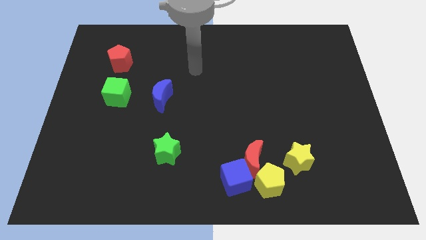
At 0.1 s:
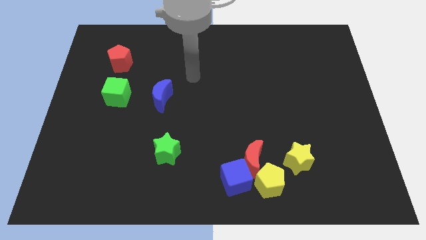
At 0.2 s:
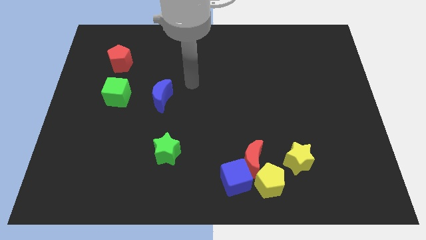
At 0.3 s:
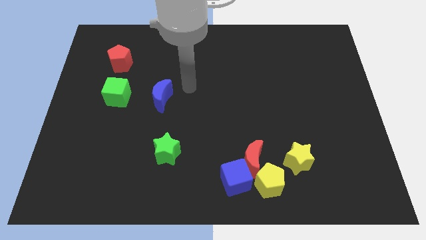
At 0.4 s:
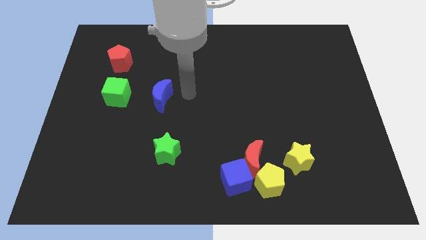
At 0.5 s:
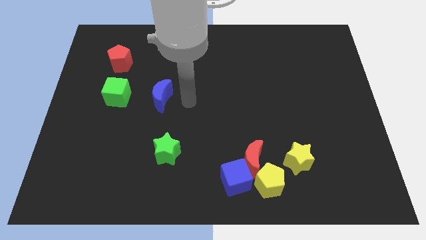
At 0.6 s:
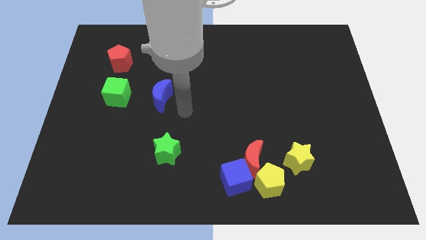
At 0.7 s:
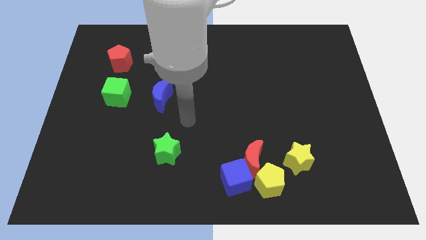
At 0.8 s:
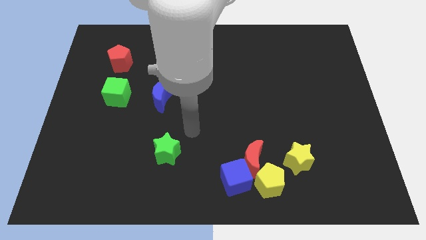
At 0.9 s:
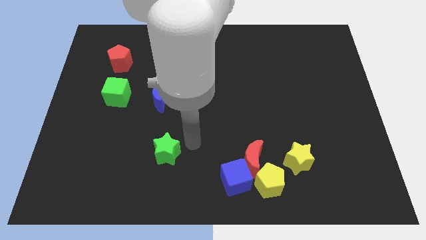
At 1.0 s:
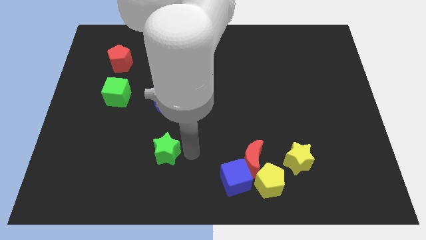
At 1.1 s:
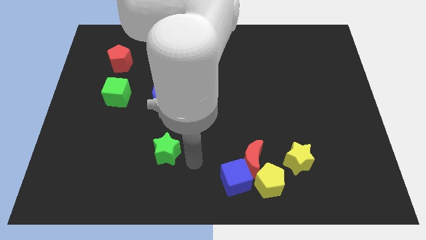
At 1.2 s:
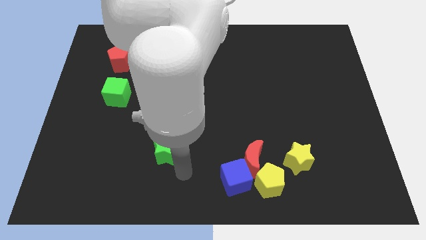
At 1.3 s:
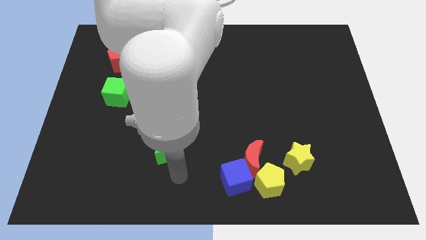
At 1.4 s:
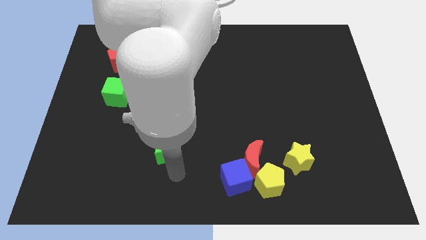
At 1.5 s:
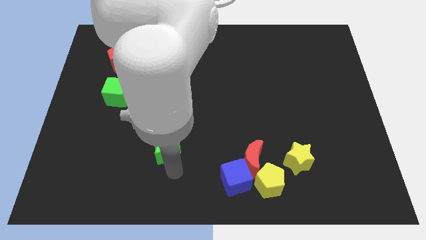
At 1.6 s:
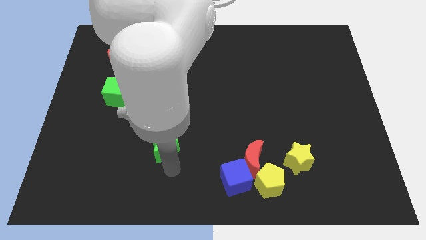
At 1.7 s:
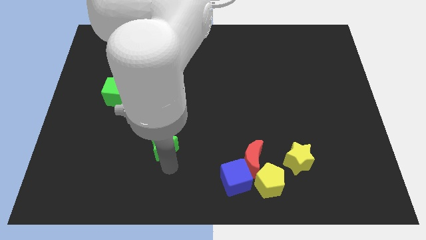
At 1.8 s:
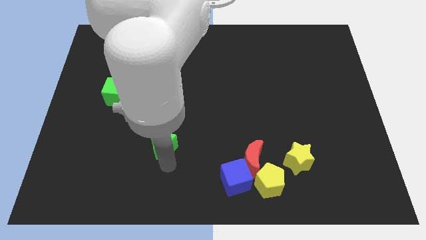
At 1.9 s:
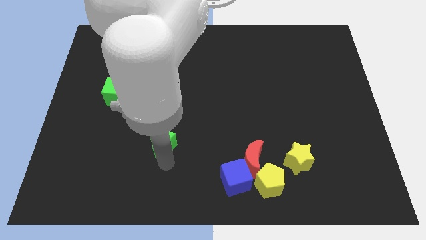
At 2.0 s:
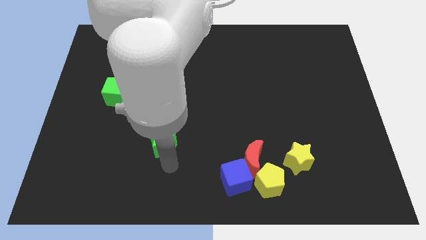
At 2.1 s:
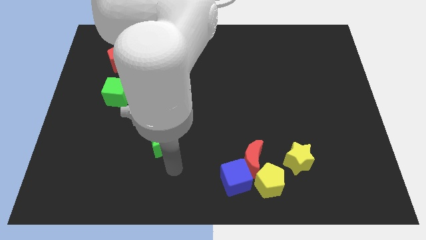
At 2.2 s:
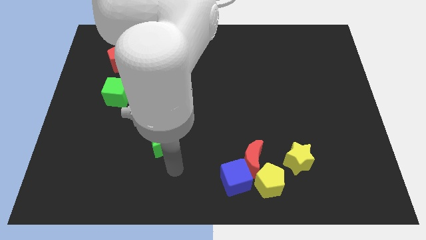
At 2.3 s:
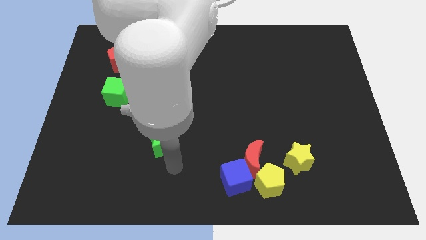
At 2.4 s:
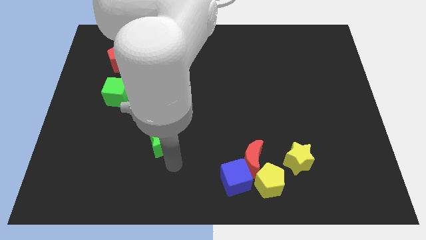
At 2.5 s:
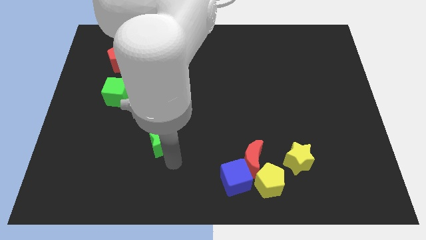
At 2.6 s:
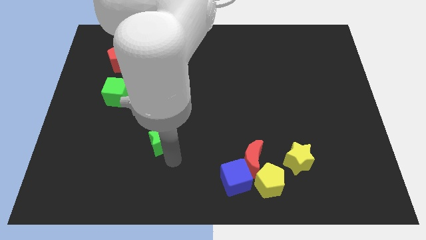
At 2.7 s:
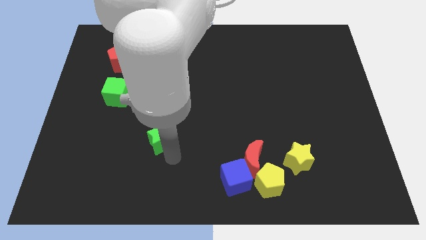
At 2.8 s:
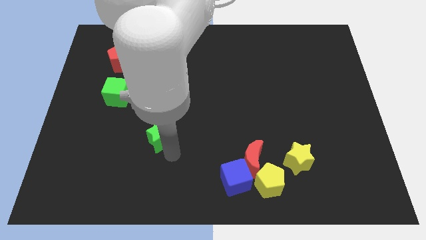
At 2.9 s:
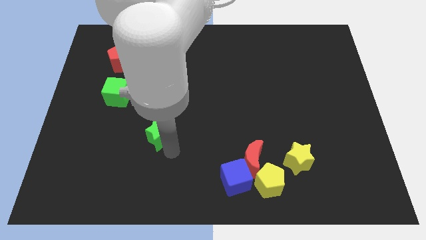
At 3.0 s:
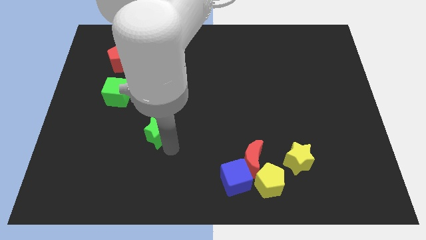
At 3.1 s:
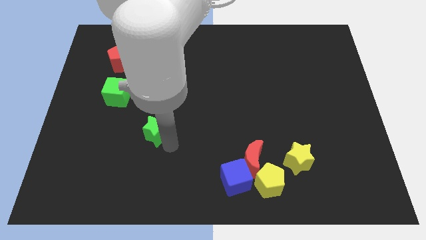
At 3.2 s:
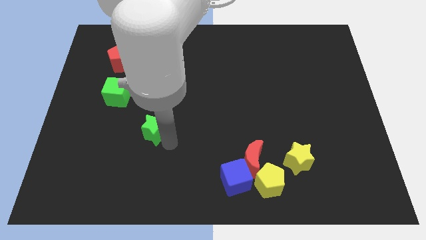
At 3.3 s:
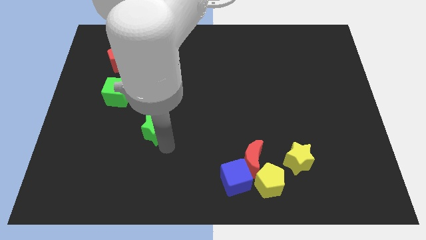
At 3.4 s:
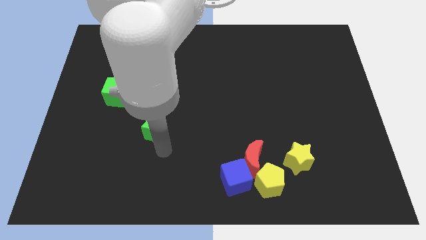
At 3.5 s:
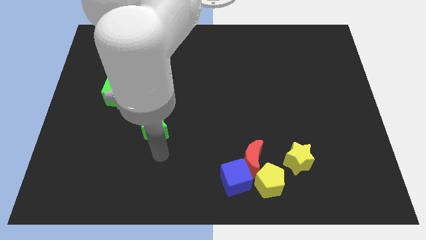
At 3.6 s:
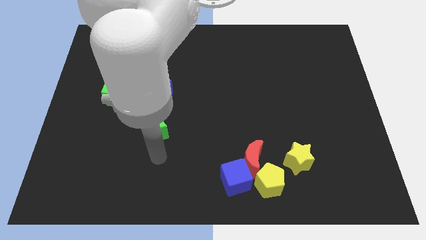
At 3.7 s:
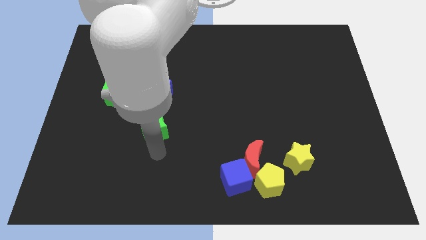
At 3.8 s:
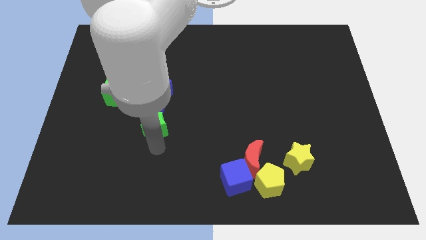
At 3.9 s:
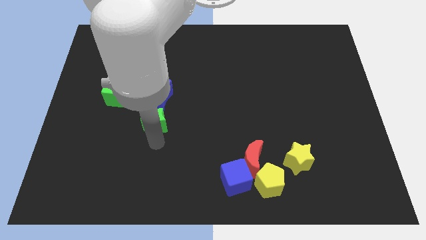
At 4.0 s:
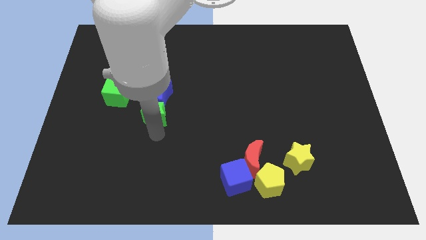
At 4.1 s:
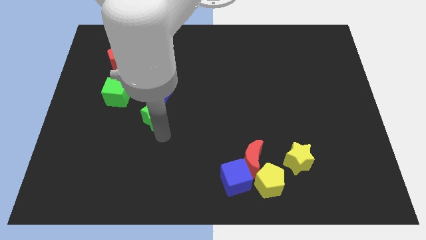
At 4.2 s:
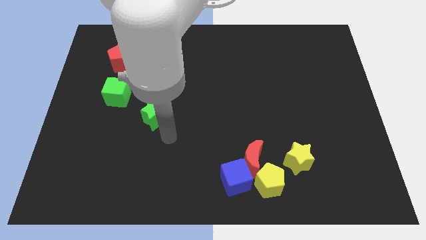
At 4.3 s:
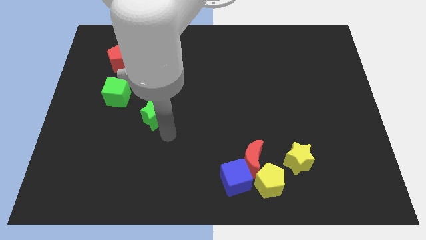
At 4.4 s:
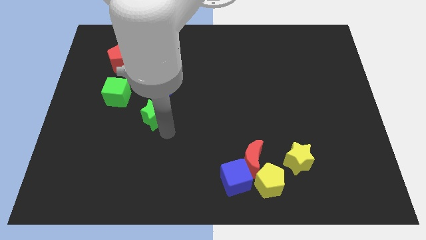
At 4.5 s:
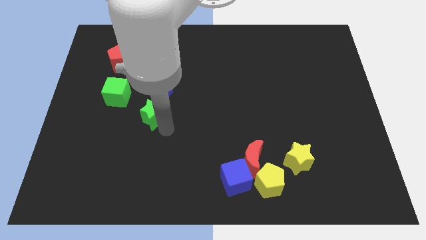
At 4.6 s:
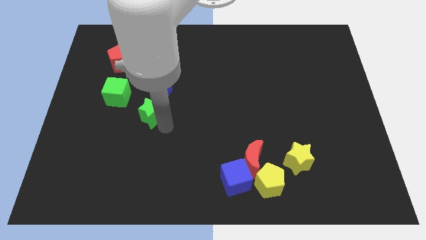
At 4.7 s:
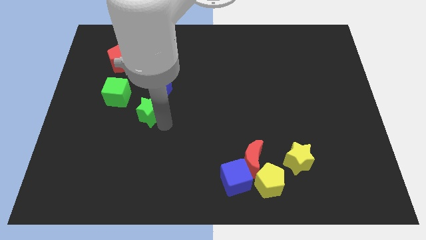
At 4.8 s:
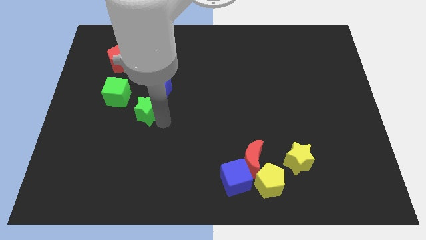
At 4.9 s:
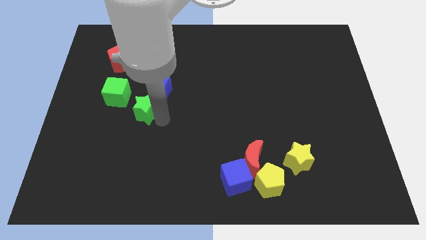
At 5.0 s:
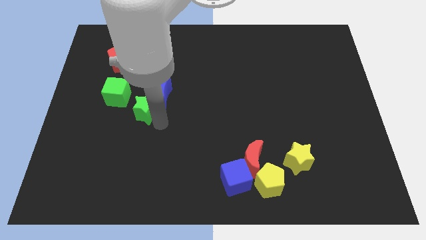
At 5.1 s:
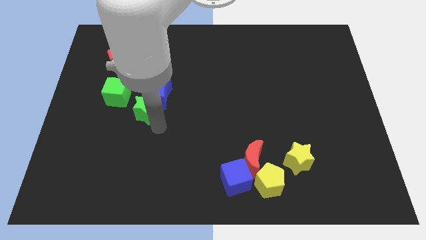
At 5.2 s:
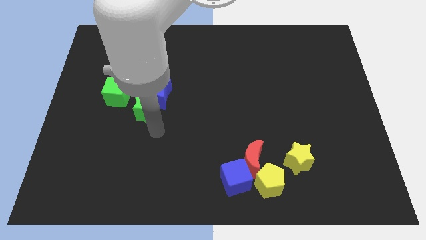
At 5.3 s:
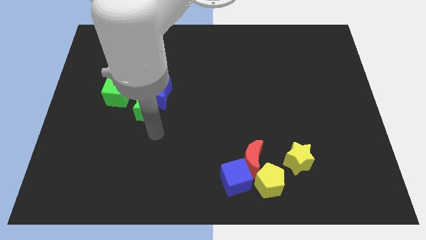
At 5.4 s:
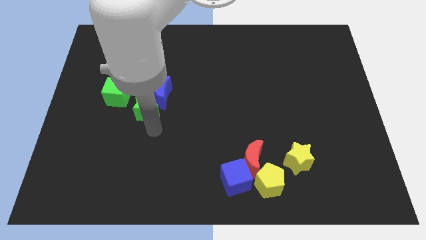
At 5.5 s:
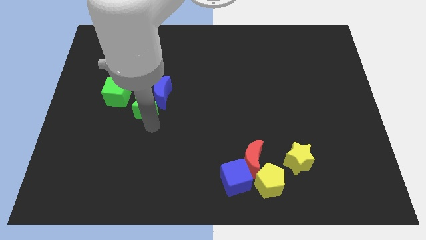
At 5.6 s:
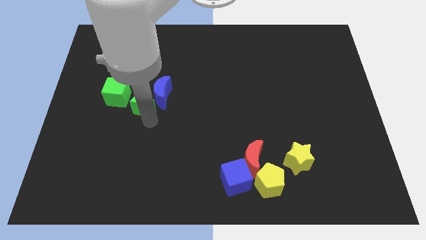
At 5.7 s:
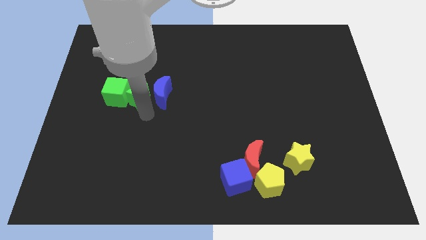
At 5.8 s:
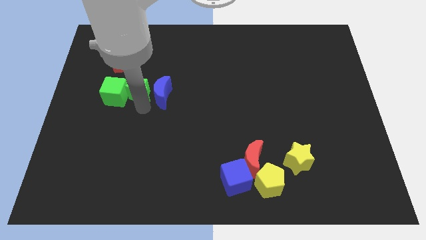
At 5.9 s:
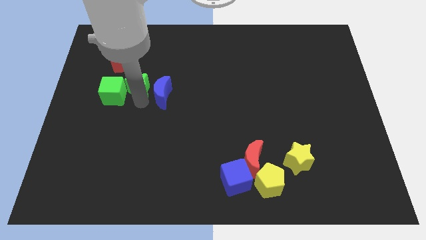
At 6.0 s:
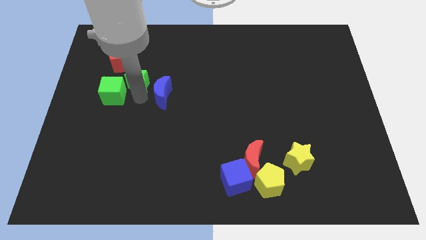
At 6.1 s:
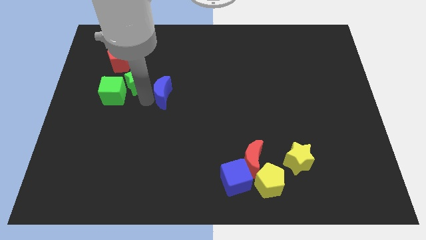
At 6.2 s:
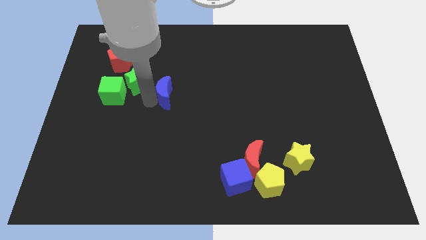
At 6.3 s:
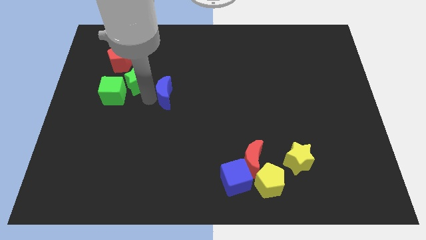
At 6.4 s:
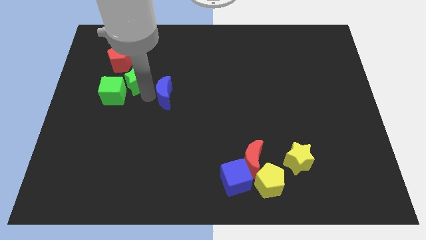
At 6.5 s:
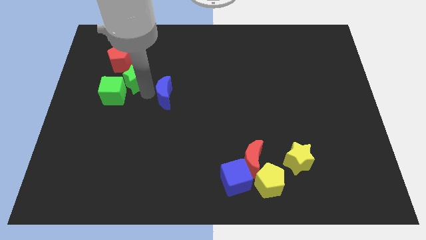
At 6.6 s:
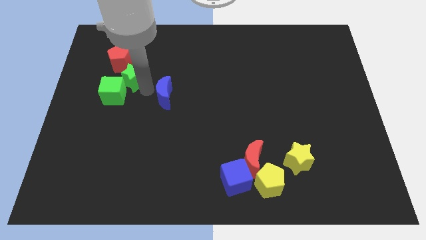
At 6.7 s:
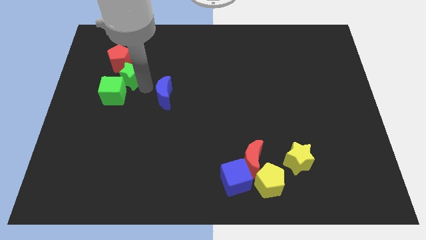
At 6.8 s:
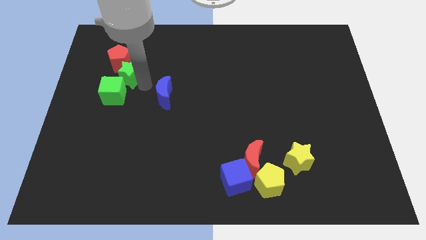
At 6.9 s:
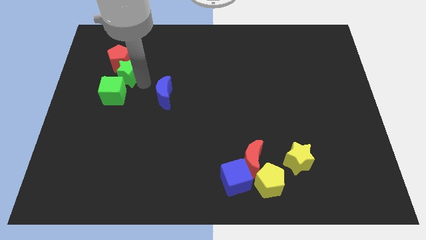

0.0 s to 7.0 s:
push the green star to the red pentagon
